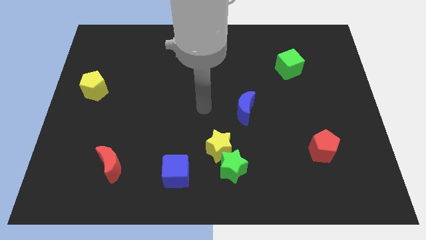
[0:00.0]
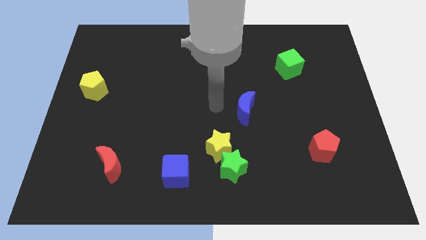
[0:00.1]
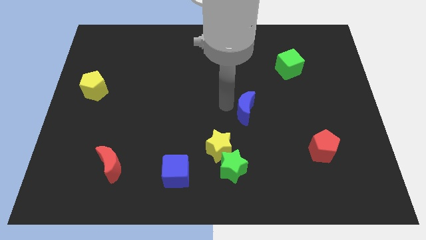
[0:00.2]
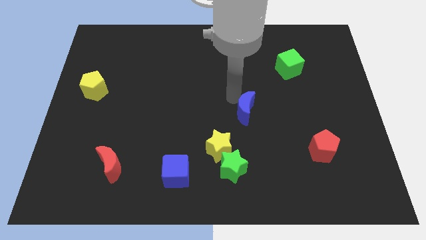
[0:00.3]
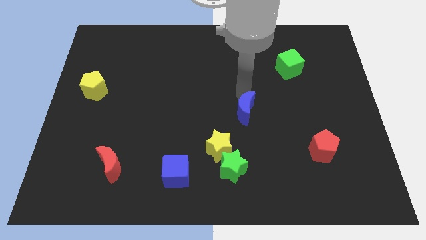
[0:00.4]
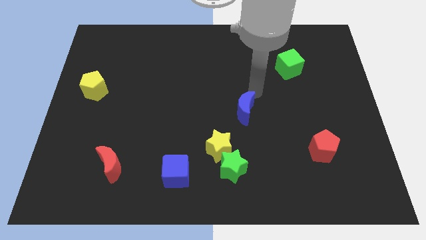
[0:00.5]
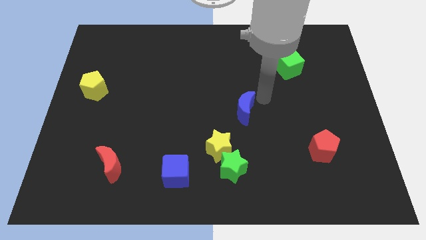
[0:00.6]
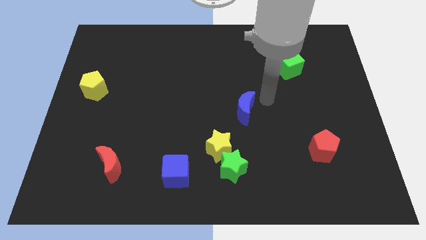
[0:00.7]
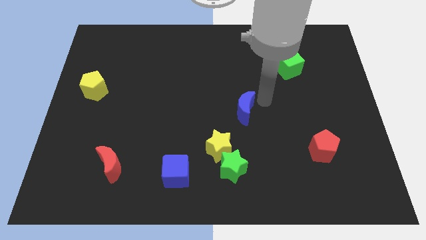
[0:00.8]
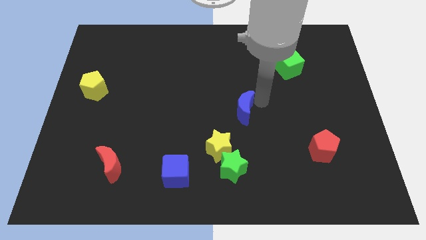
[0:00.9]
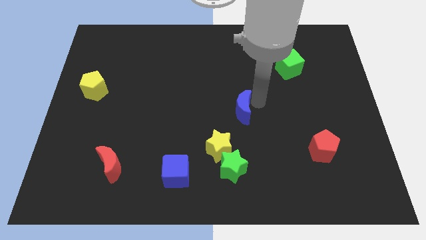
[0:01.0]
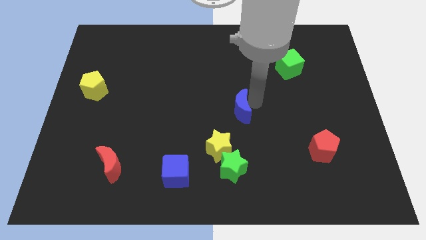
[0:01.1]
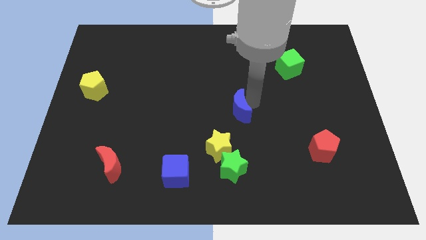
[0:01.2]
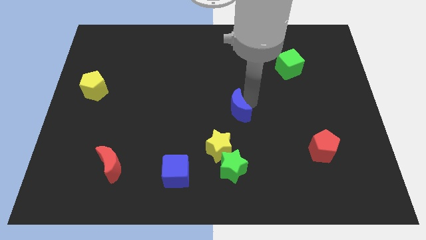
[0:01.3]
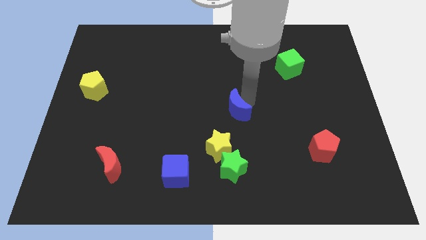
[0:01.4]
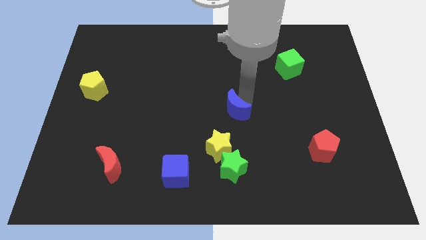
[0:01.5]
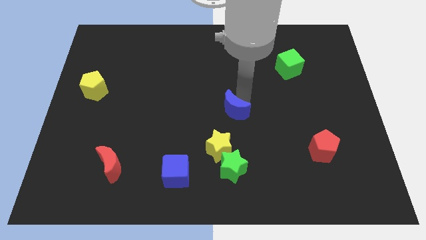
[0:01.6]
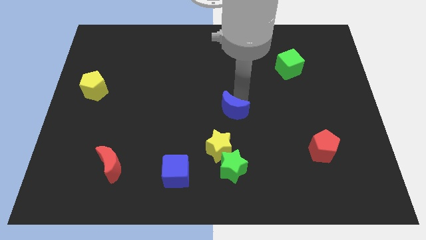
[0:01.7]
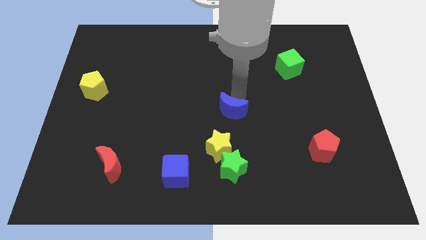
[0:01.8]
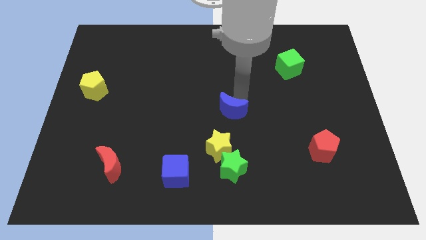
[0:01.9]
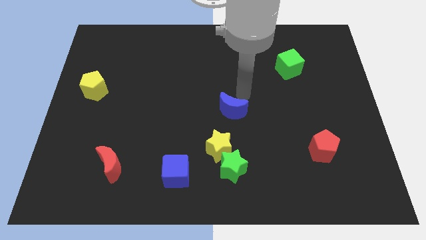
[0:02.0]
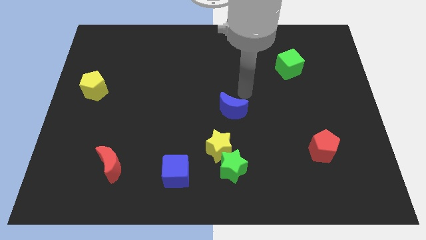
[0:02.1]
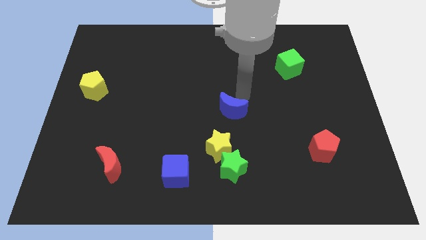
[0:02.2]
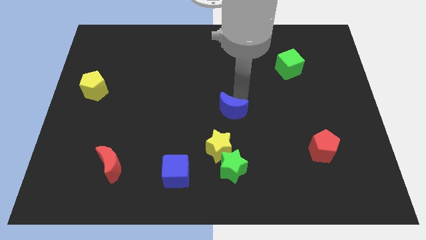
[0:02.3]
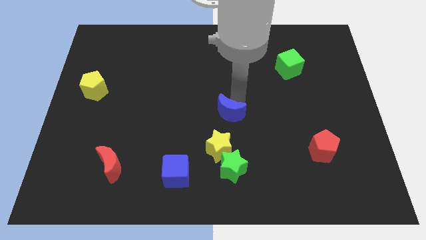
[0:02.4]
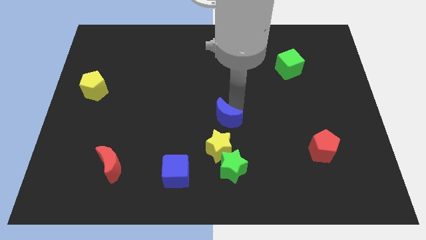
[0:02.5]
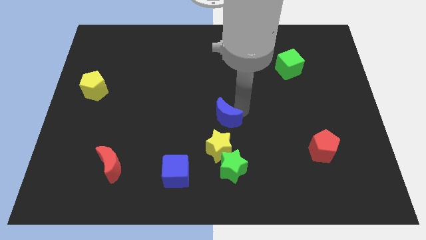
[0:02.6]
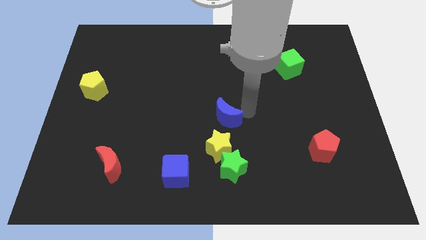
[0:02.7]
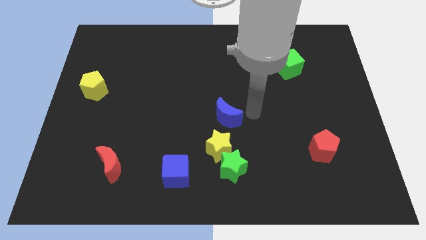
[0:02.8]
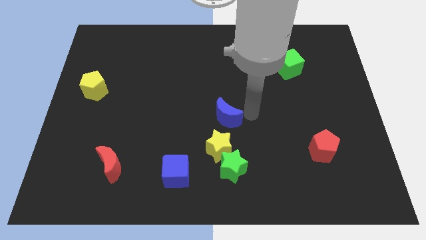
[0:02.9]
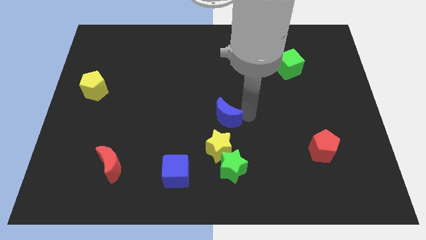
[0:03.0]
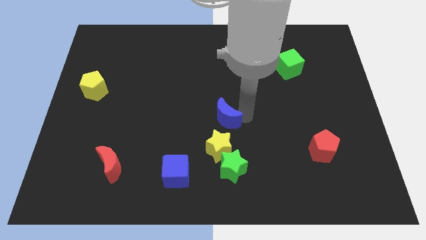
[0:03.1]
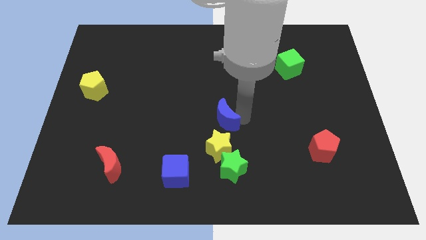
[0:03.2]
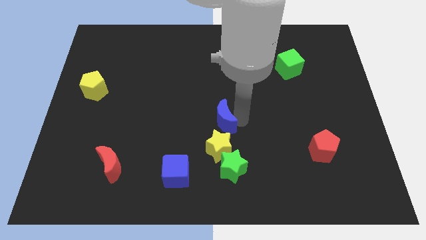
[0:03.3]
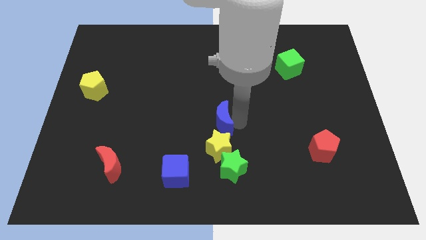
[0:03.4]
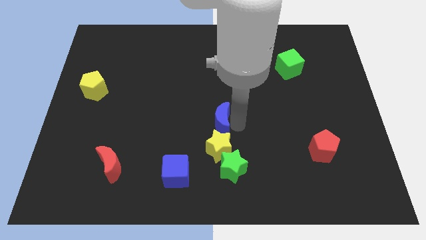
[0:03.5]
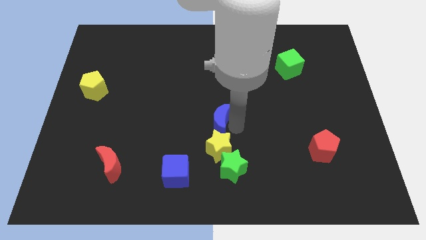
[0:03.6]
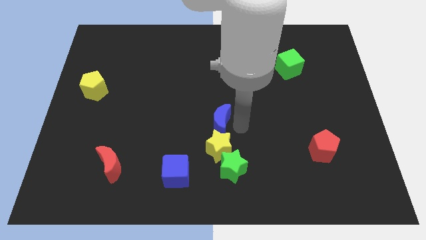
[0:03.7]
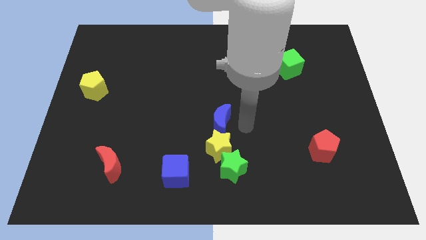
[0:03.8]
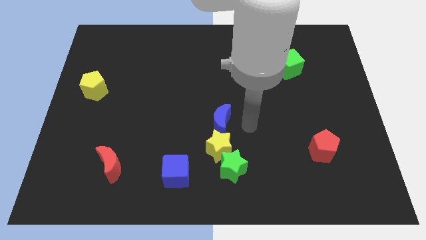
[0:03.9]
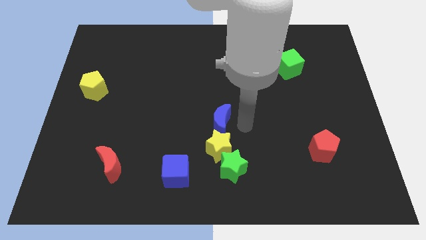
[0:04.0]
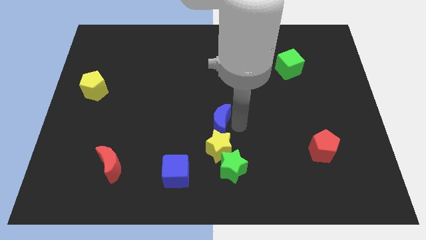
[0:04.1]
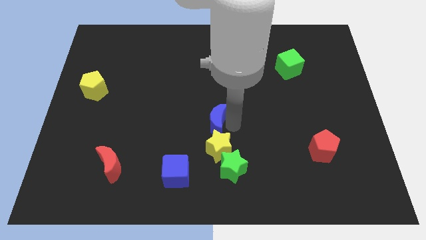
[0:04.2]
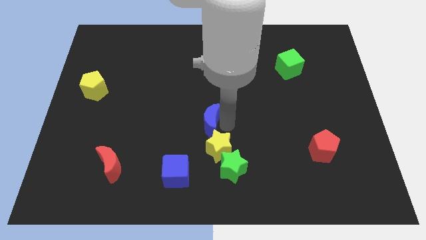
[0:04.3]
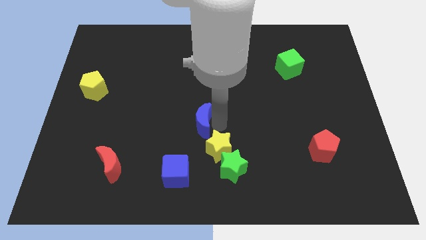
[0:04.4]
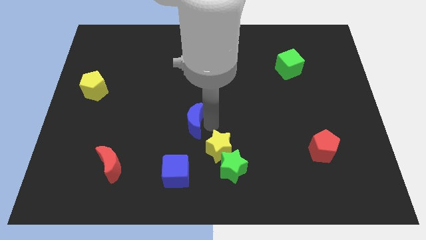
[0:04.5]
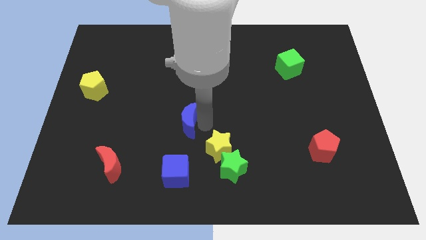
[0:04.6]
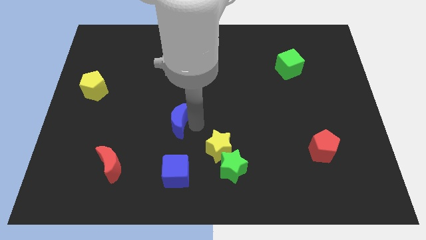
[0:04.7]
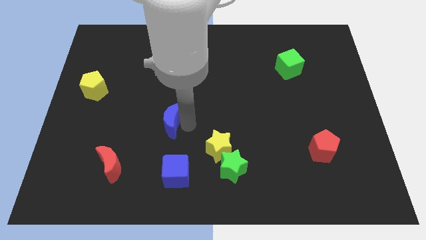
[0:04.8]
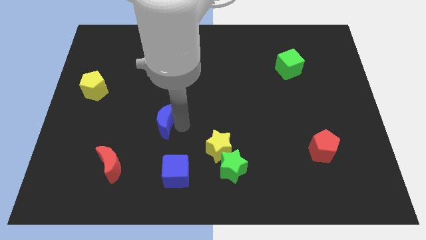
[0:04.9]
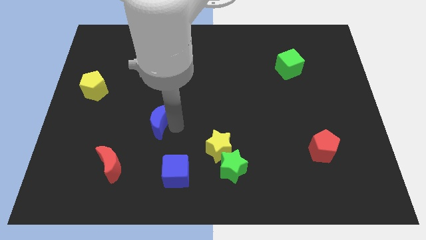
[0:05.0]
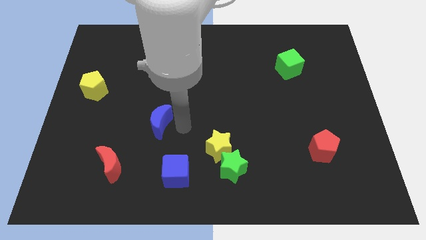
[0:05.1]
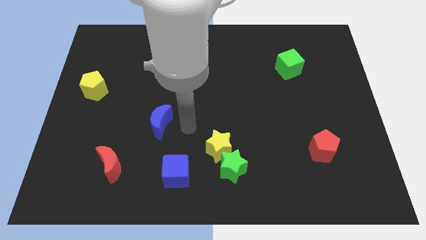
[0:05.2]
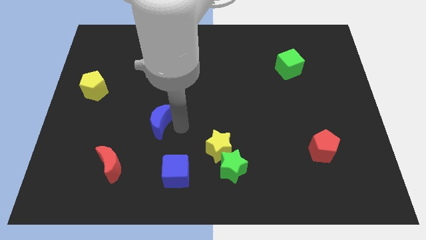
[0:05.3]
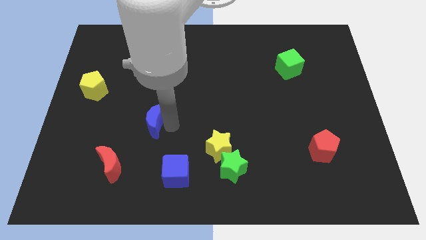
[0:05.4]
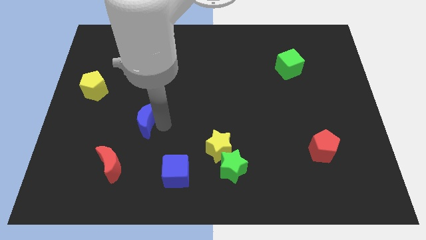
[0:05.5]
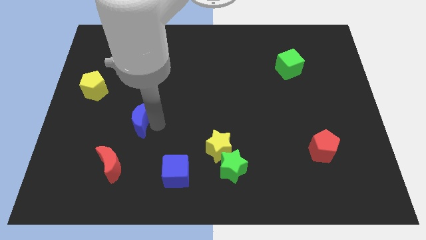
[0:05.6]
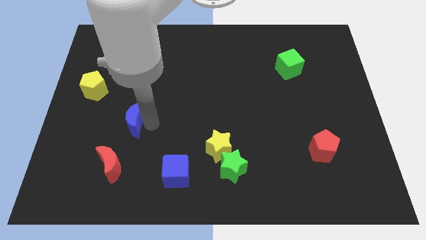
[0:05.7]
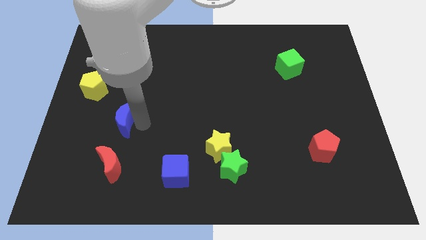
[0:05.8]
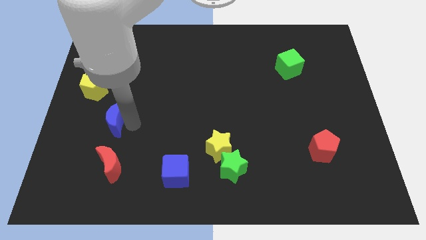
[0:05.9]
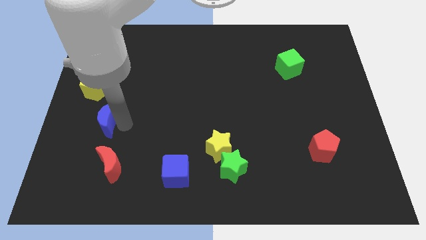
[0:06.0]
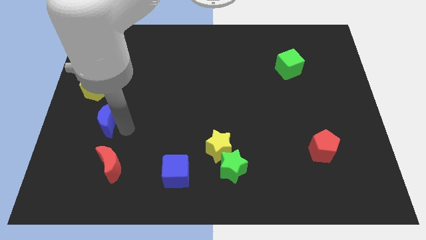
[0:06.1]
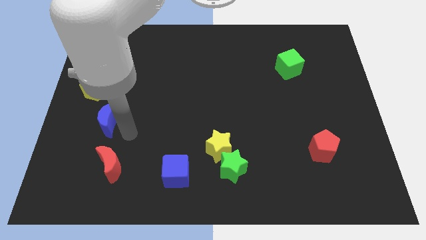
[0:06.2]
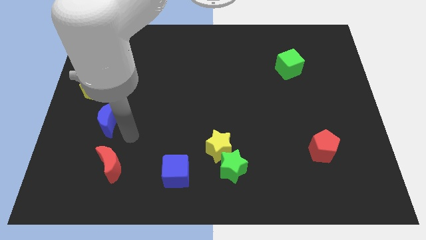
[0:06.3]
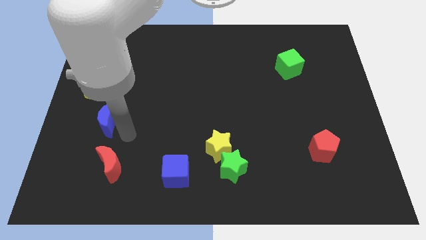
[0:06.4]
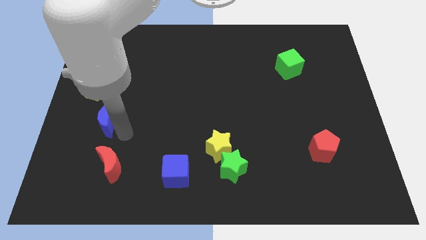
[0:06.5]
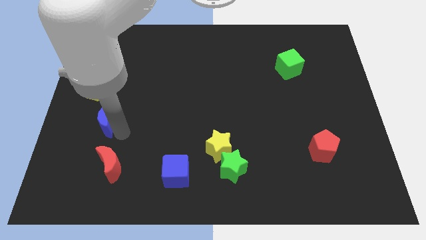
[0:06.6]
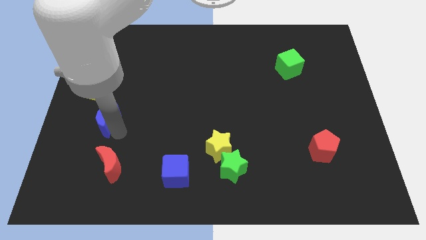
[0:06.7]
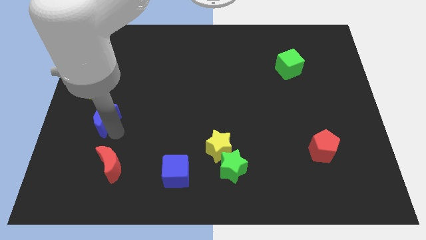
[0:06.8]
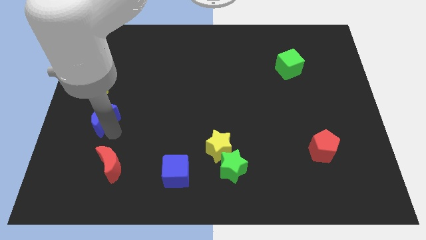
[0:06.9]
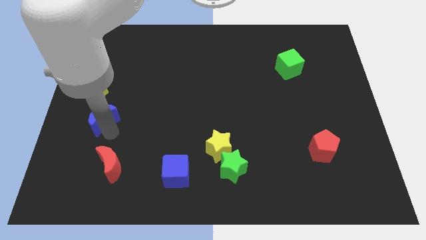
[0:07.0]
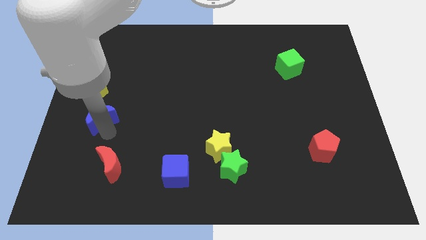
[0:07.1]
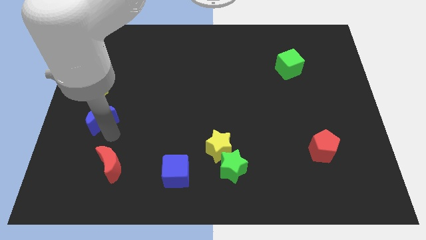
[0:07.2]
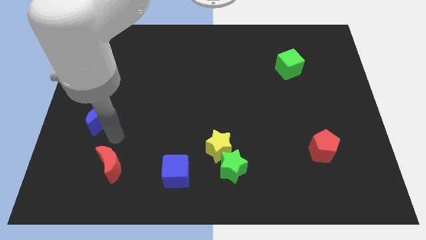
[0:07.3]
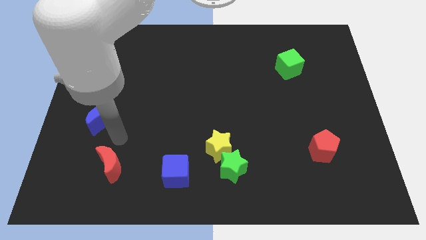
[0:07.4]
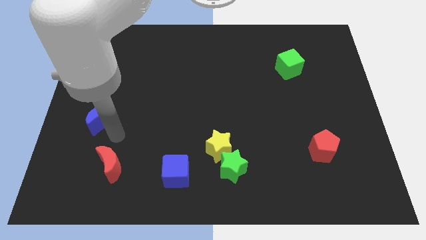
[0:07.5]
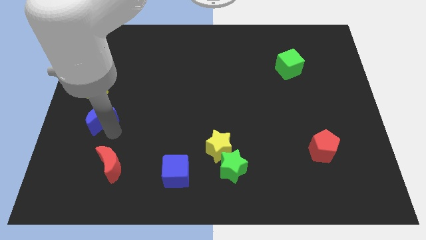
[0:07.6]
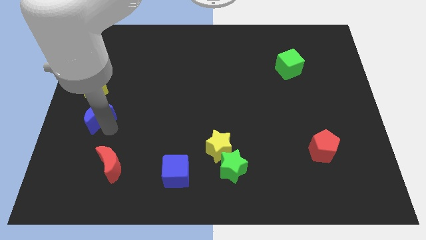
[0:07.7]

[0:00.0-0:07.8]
slide the blue moon to the left side of the board
